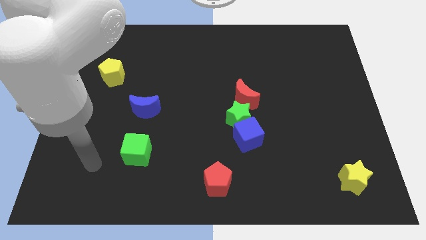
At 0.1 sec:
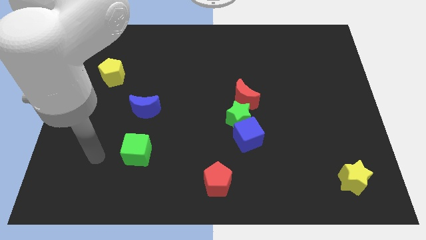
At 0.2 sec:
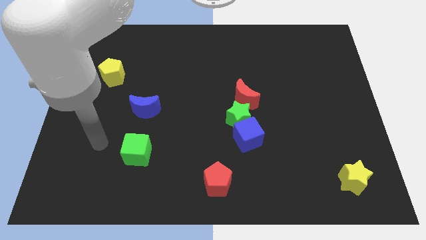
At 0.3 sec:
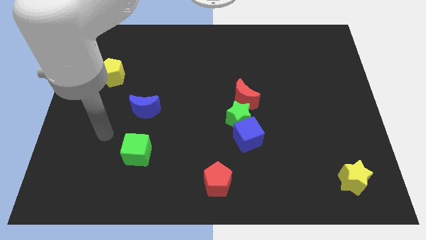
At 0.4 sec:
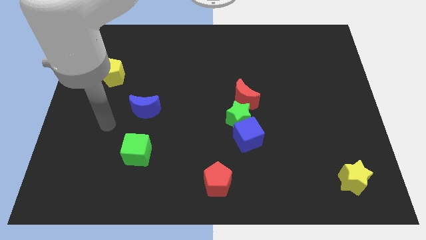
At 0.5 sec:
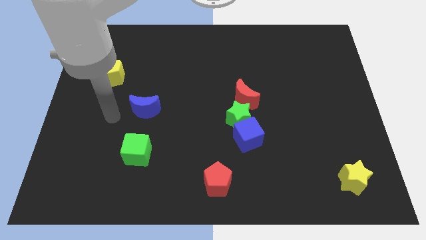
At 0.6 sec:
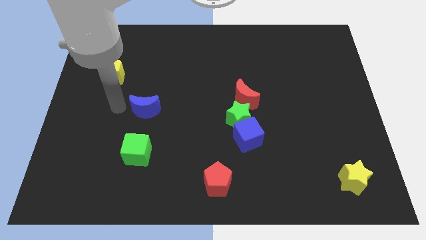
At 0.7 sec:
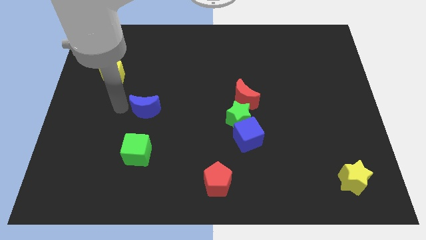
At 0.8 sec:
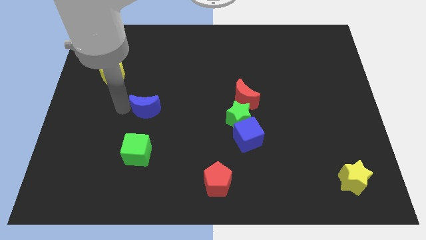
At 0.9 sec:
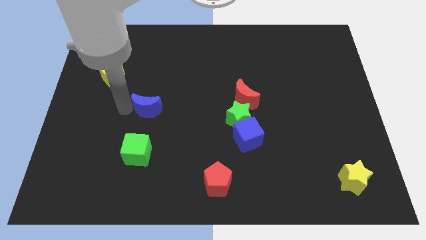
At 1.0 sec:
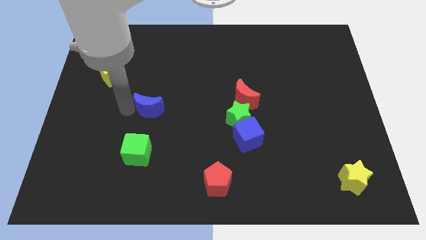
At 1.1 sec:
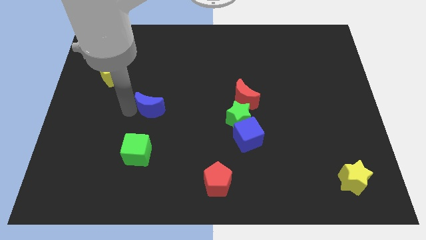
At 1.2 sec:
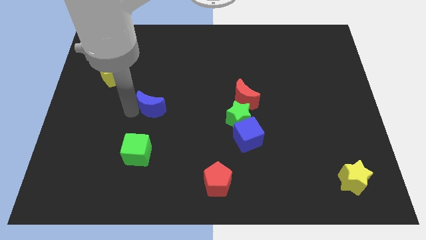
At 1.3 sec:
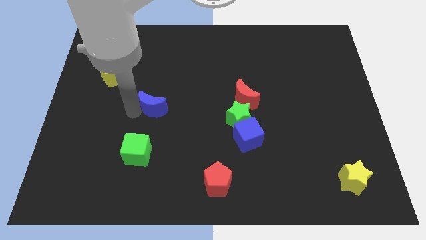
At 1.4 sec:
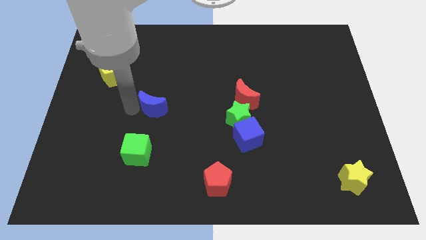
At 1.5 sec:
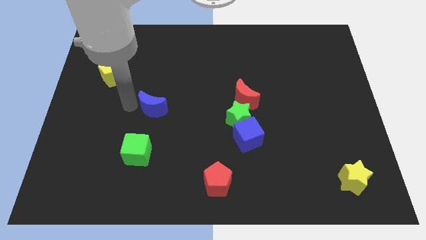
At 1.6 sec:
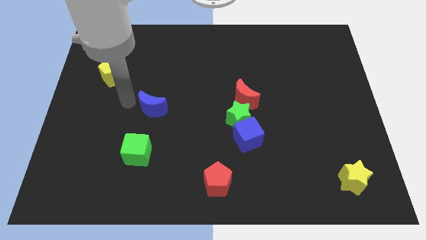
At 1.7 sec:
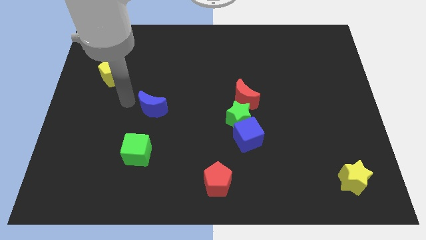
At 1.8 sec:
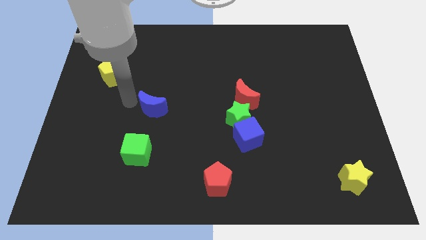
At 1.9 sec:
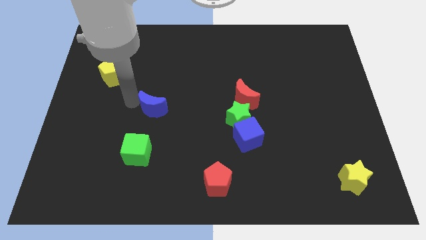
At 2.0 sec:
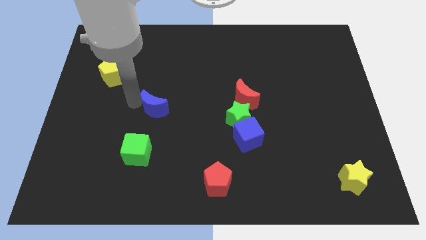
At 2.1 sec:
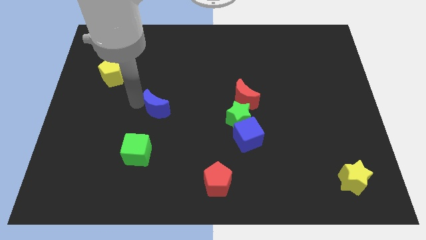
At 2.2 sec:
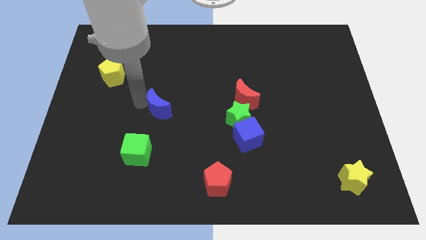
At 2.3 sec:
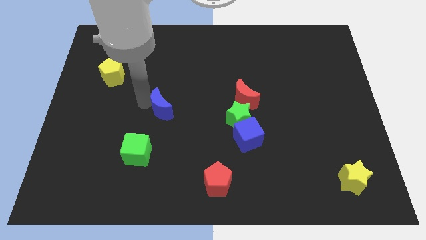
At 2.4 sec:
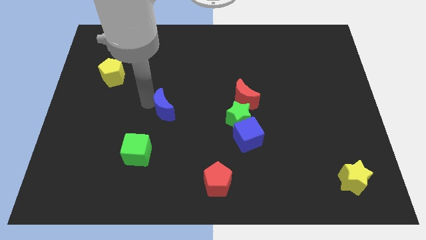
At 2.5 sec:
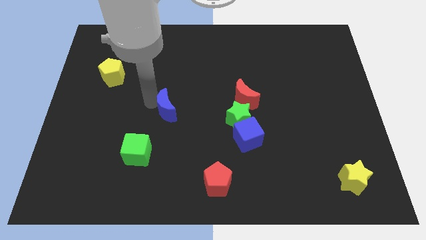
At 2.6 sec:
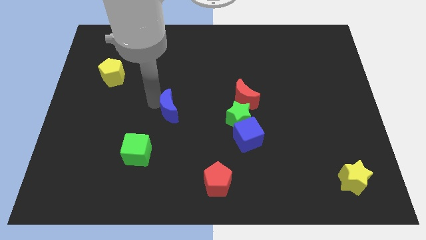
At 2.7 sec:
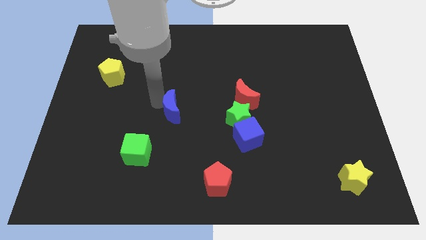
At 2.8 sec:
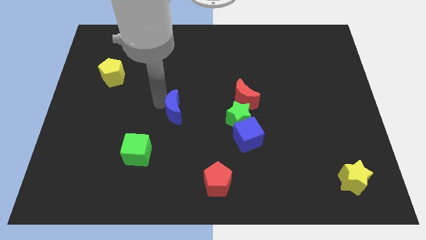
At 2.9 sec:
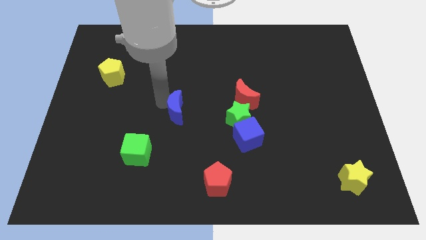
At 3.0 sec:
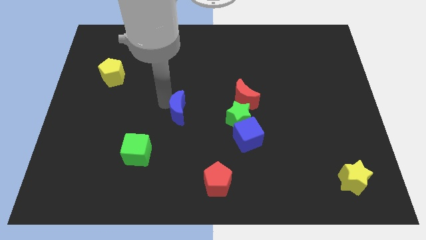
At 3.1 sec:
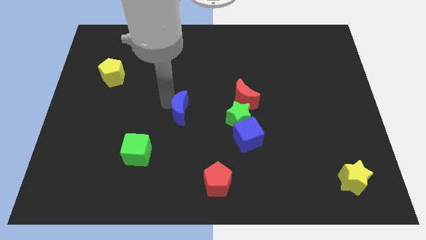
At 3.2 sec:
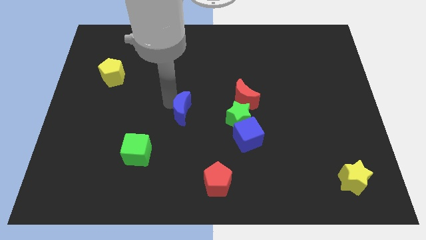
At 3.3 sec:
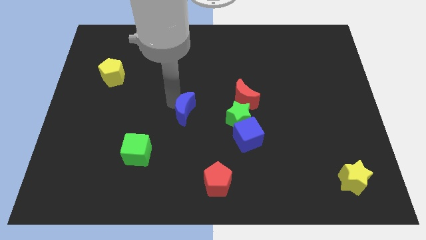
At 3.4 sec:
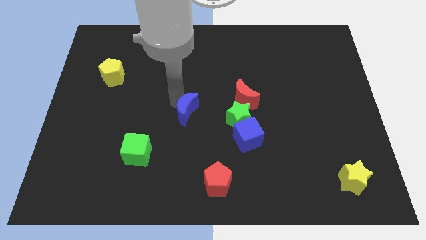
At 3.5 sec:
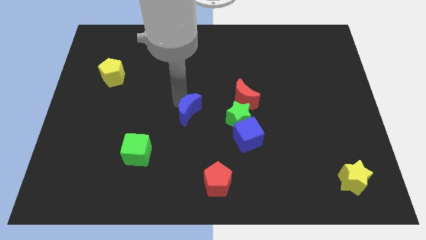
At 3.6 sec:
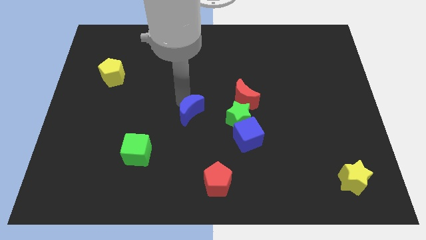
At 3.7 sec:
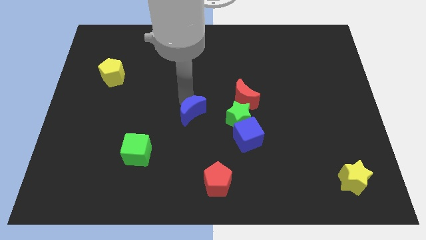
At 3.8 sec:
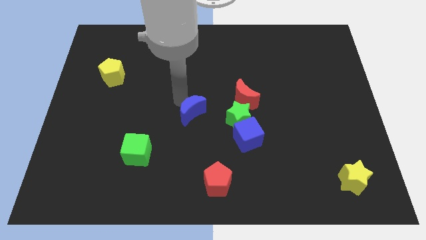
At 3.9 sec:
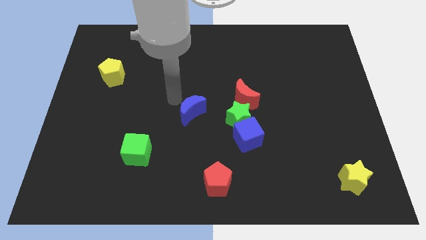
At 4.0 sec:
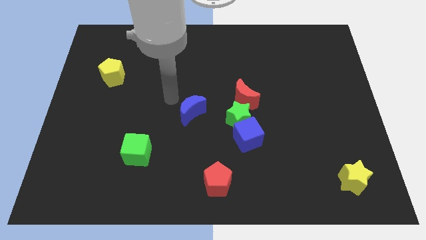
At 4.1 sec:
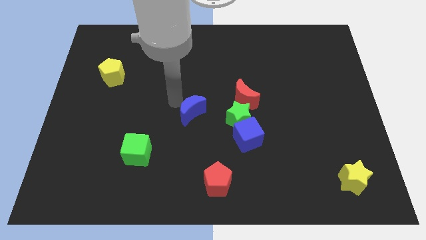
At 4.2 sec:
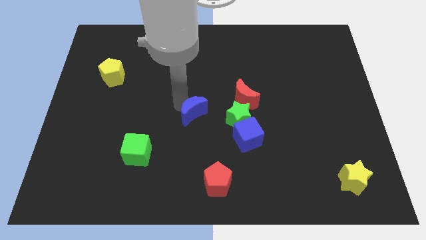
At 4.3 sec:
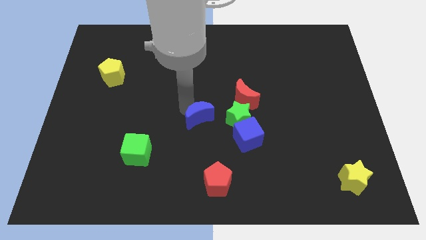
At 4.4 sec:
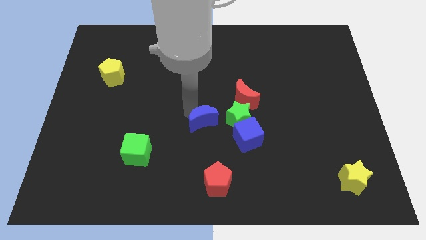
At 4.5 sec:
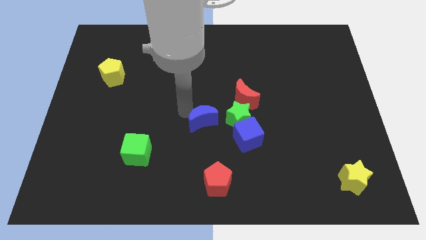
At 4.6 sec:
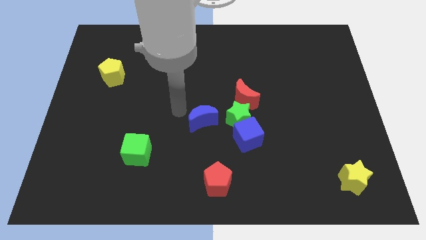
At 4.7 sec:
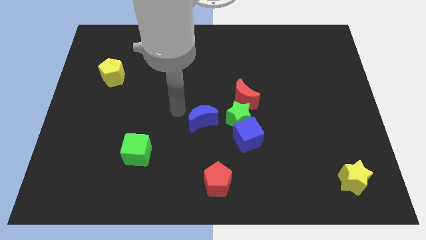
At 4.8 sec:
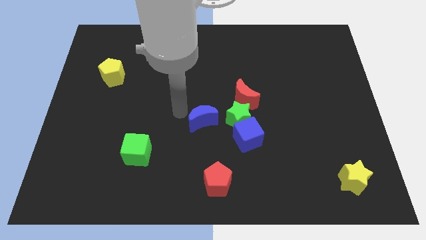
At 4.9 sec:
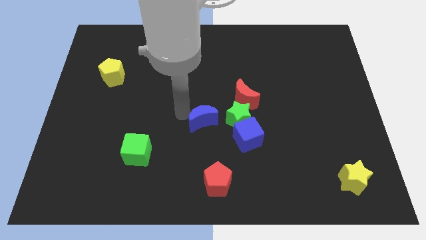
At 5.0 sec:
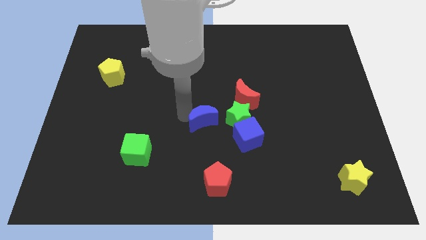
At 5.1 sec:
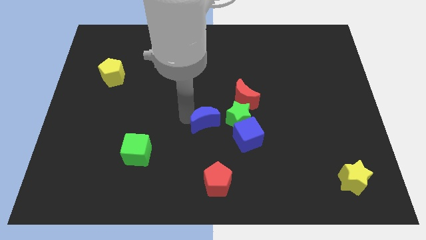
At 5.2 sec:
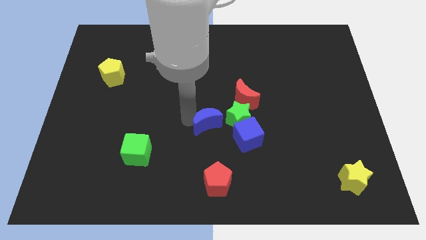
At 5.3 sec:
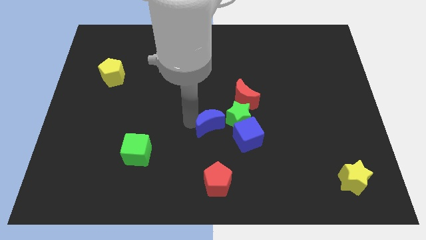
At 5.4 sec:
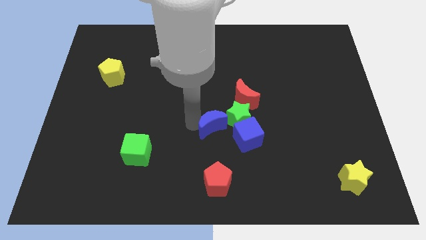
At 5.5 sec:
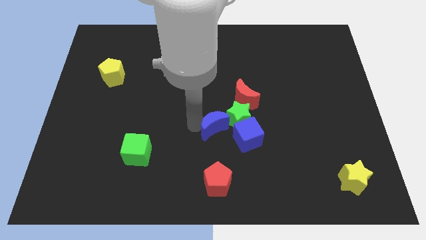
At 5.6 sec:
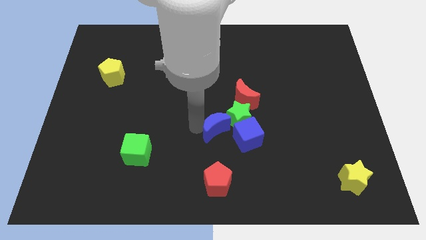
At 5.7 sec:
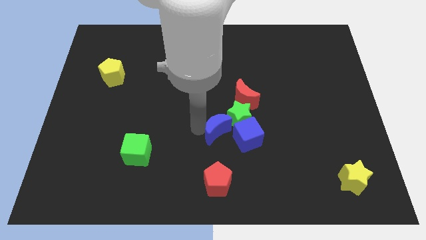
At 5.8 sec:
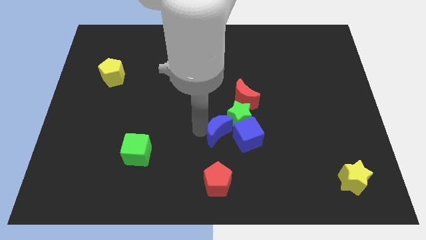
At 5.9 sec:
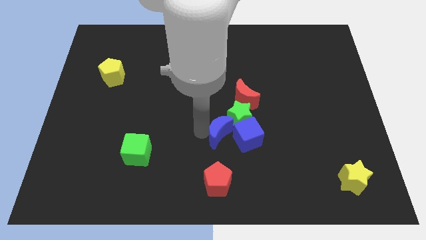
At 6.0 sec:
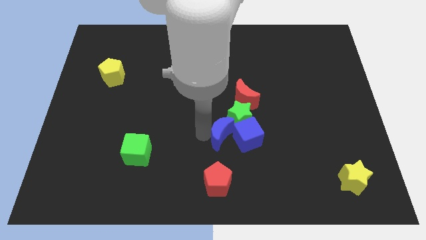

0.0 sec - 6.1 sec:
slide the blue moon next to the blue cube

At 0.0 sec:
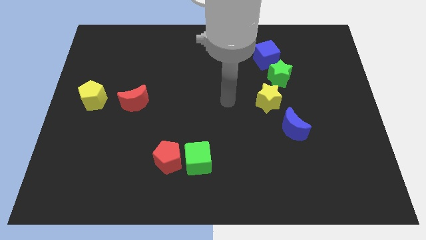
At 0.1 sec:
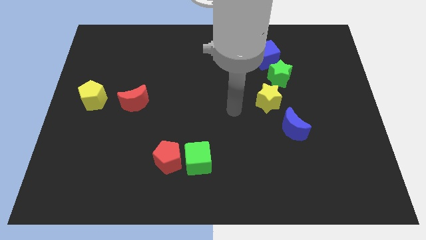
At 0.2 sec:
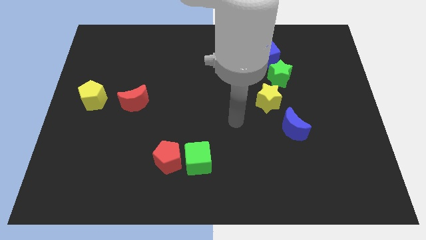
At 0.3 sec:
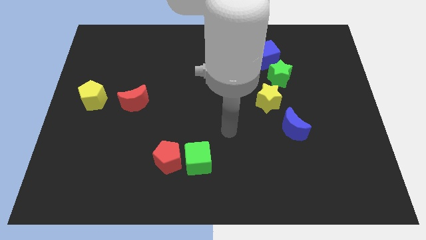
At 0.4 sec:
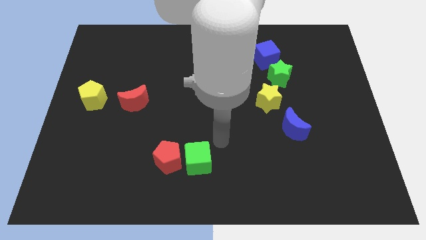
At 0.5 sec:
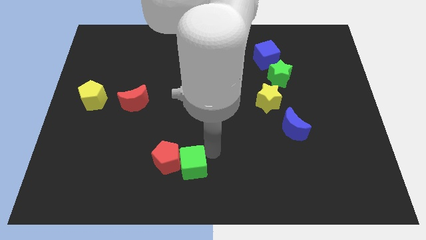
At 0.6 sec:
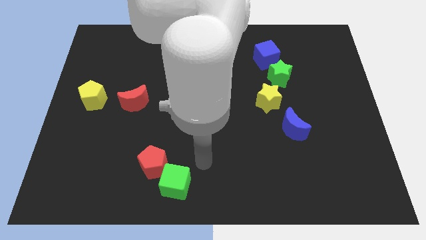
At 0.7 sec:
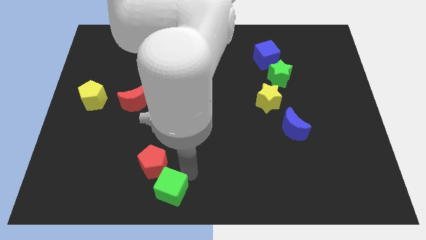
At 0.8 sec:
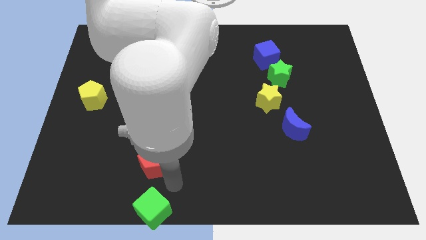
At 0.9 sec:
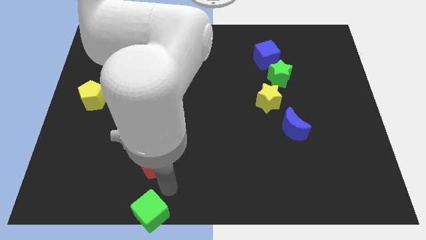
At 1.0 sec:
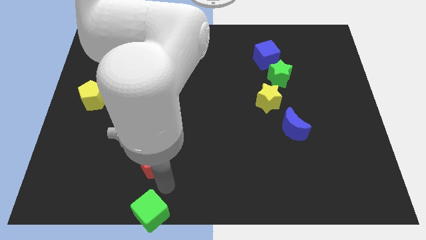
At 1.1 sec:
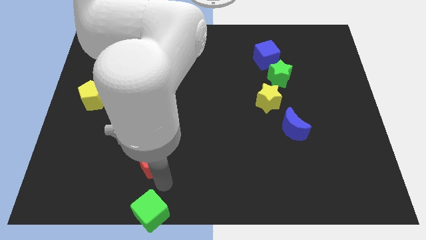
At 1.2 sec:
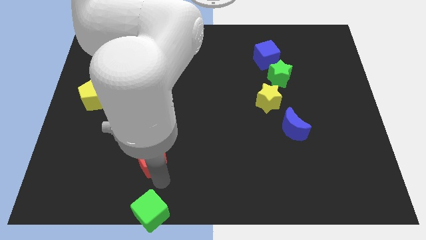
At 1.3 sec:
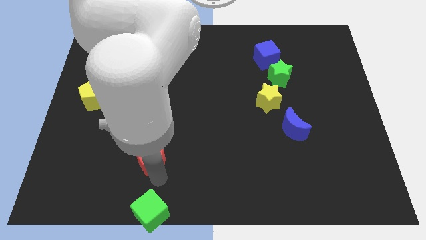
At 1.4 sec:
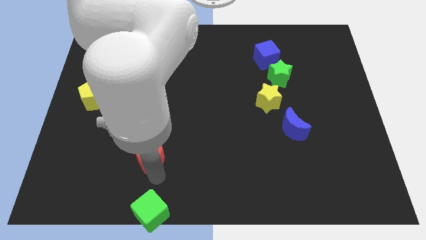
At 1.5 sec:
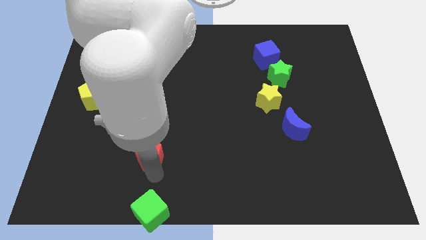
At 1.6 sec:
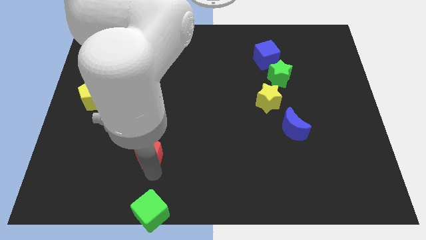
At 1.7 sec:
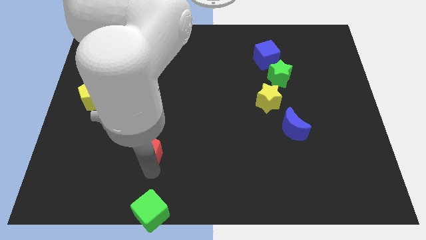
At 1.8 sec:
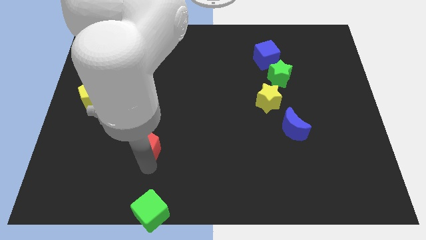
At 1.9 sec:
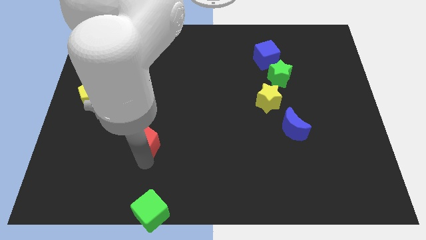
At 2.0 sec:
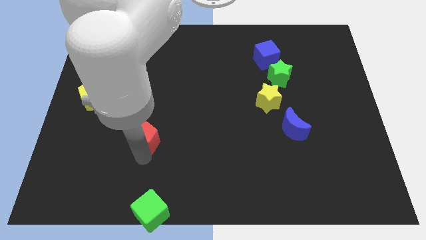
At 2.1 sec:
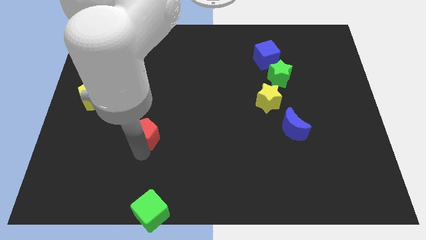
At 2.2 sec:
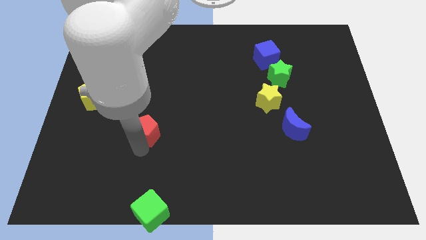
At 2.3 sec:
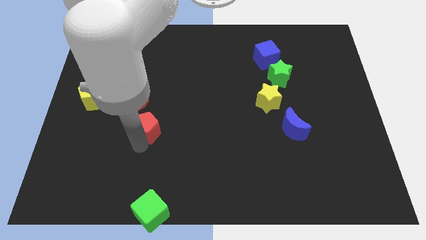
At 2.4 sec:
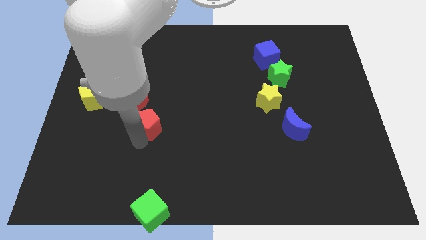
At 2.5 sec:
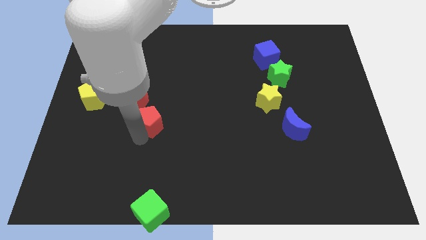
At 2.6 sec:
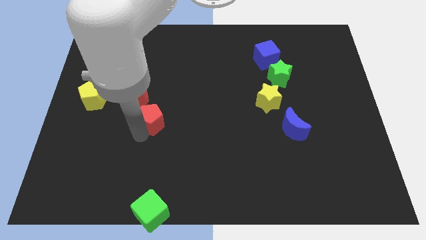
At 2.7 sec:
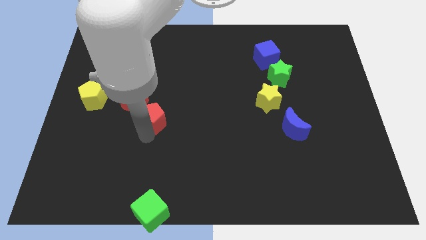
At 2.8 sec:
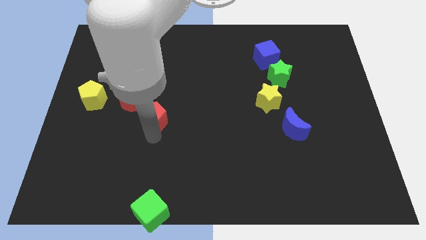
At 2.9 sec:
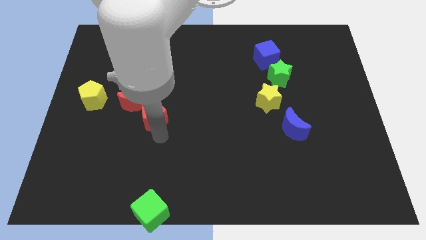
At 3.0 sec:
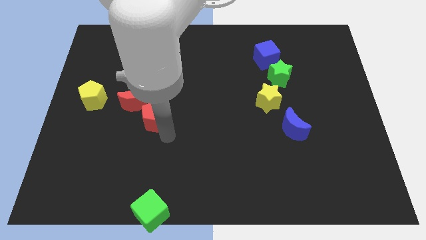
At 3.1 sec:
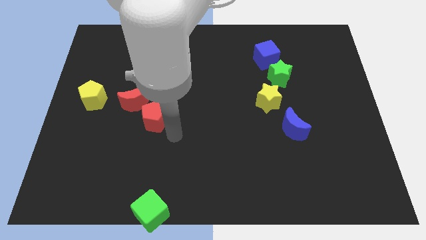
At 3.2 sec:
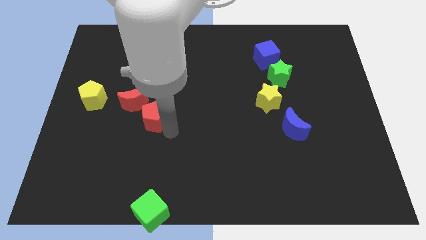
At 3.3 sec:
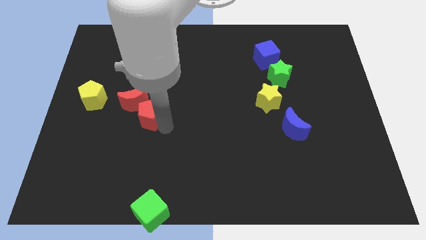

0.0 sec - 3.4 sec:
slide the red pentagon close to the red moon
